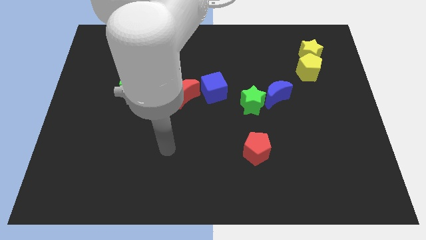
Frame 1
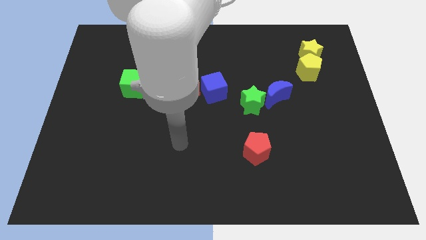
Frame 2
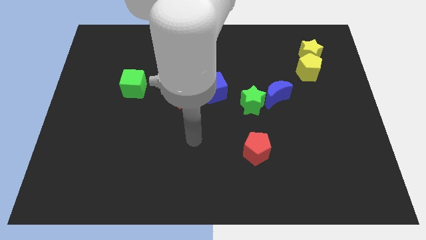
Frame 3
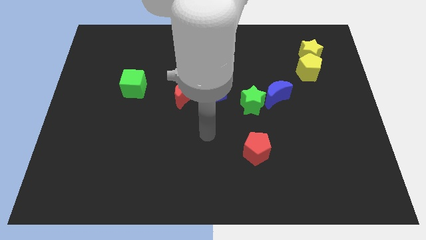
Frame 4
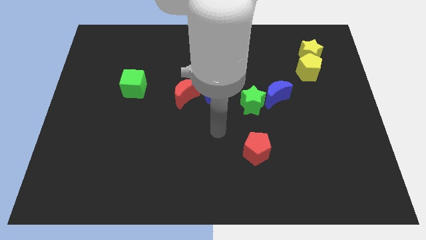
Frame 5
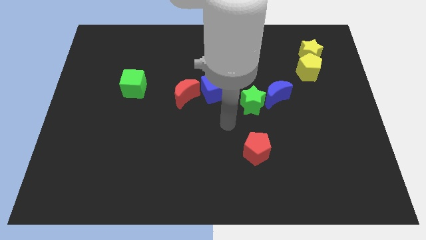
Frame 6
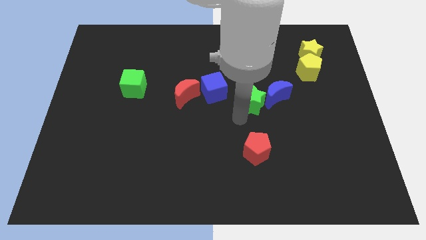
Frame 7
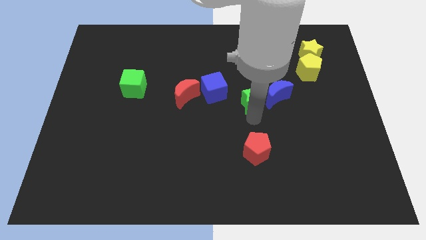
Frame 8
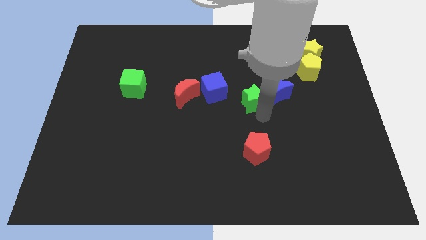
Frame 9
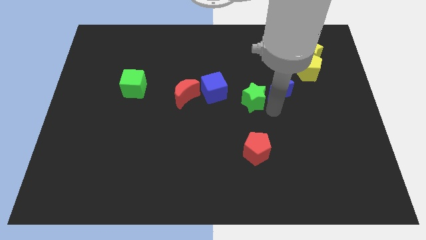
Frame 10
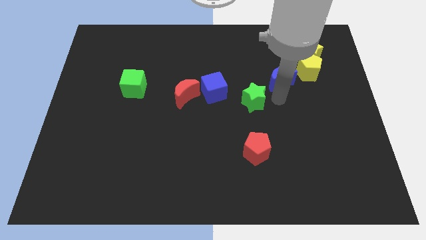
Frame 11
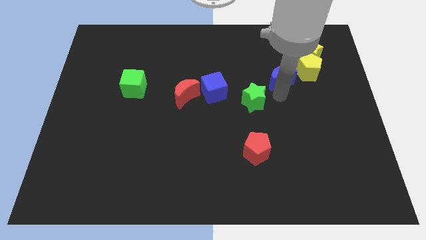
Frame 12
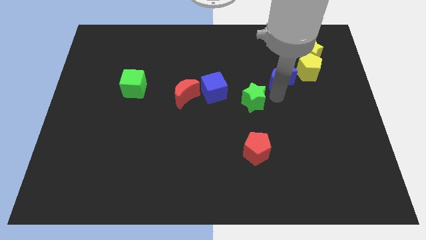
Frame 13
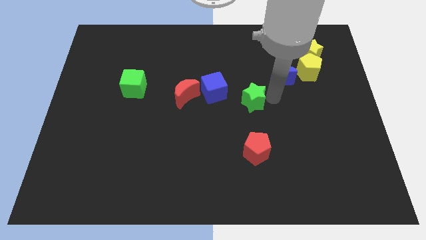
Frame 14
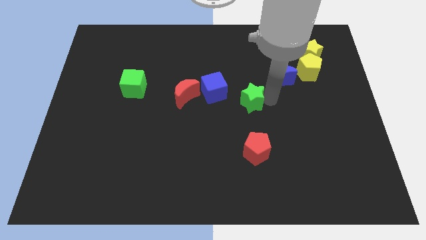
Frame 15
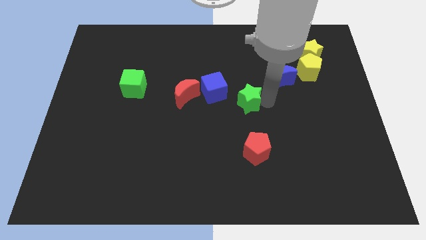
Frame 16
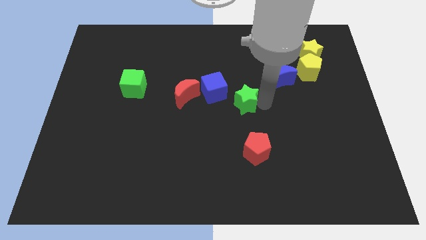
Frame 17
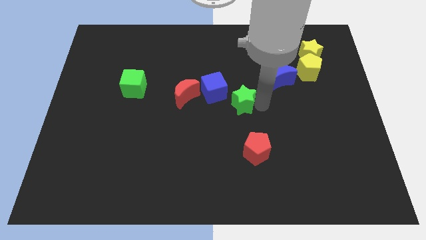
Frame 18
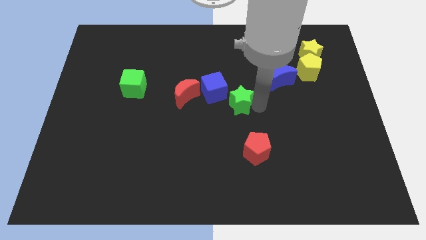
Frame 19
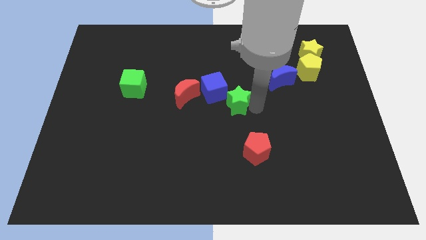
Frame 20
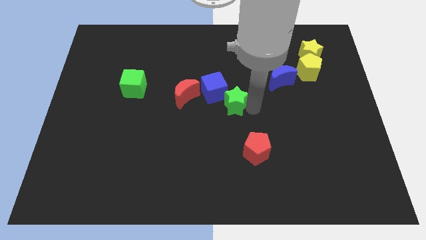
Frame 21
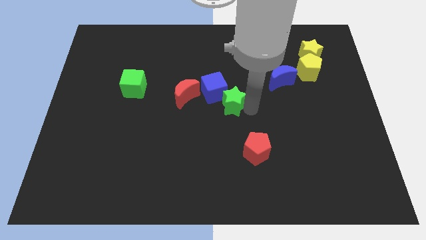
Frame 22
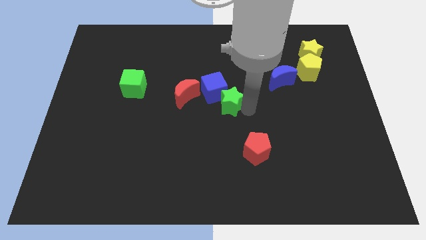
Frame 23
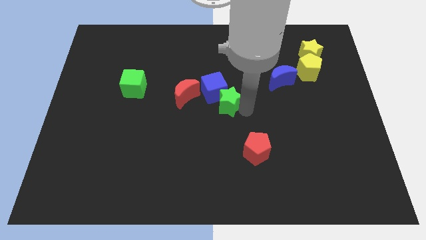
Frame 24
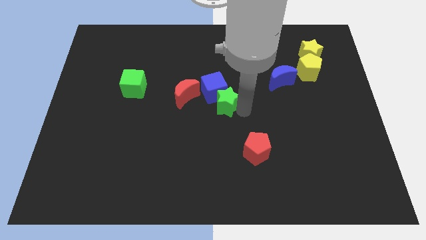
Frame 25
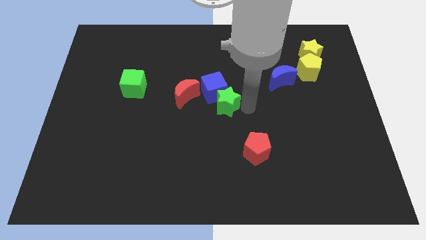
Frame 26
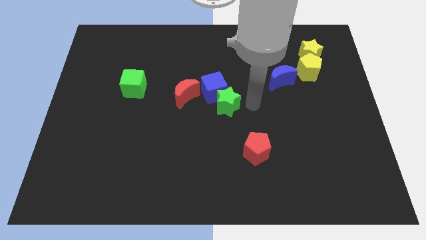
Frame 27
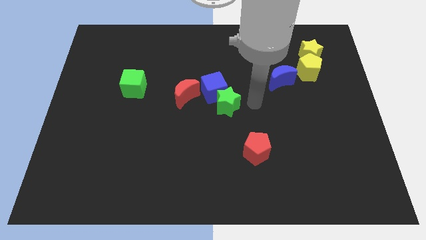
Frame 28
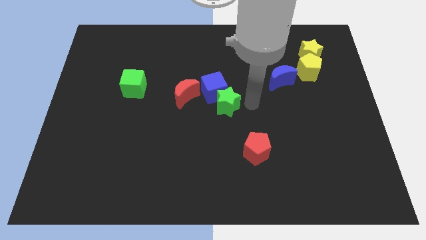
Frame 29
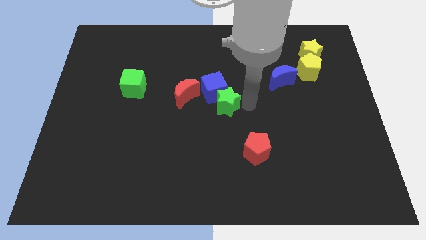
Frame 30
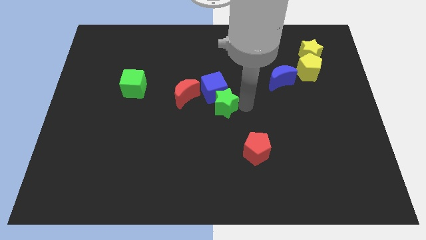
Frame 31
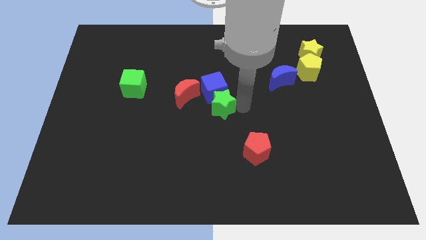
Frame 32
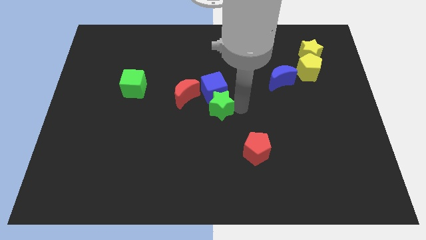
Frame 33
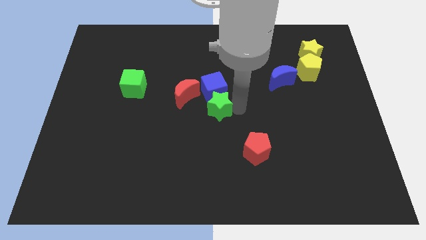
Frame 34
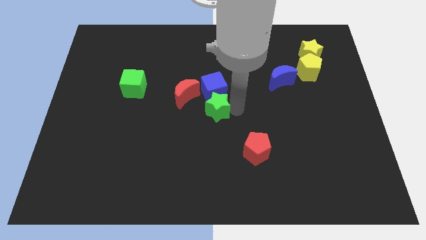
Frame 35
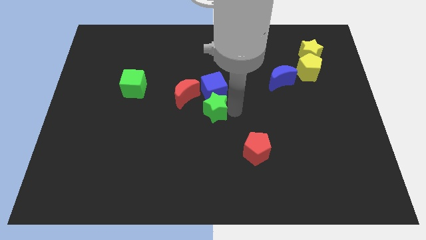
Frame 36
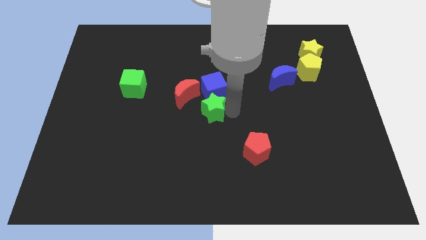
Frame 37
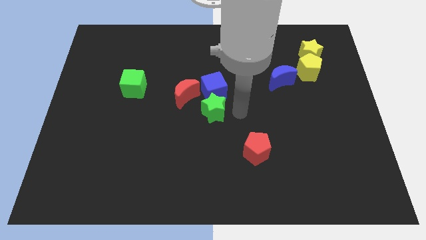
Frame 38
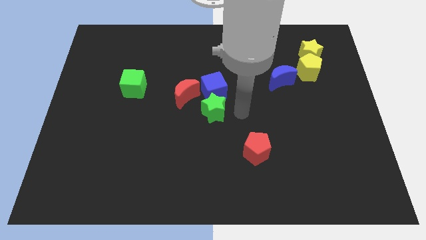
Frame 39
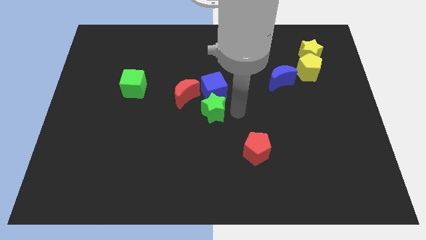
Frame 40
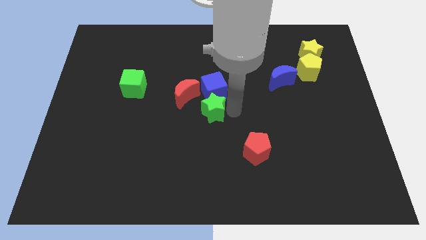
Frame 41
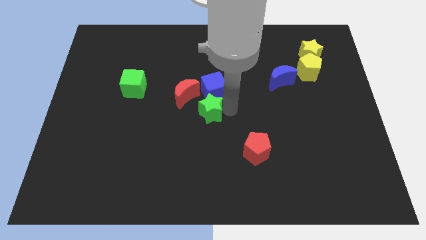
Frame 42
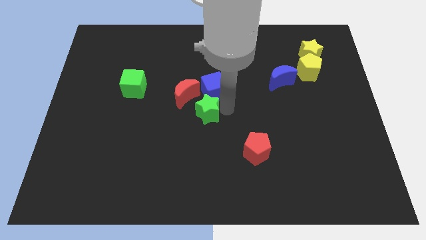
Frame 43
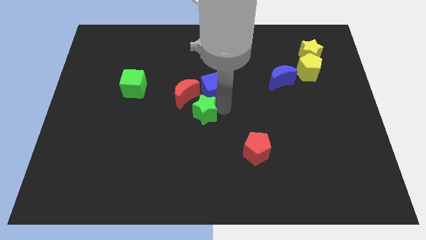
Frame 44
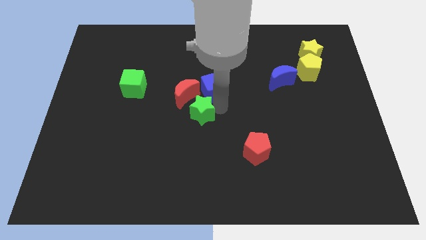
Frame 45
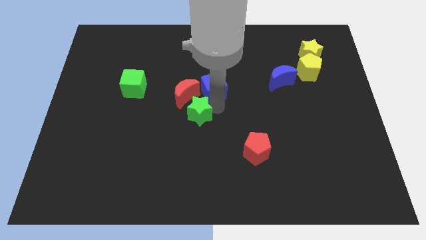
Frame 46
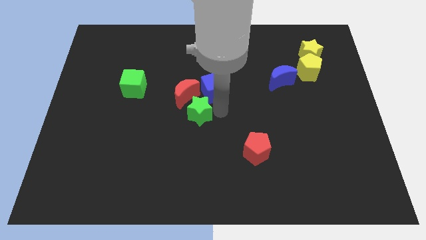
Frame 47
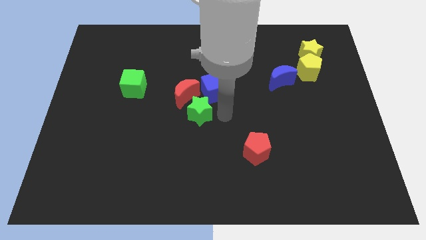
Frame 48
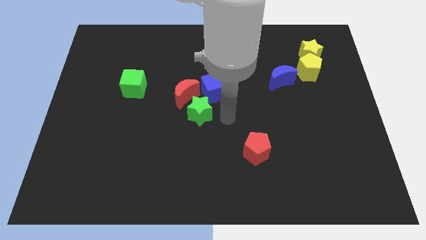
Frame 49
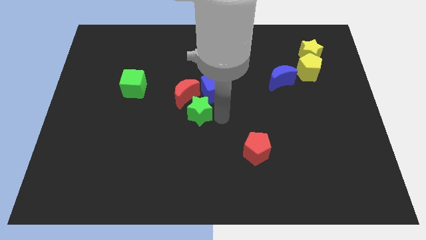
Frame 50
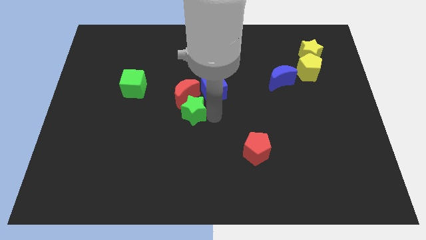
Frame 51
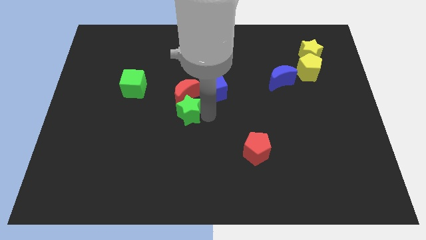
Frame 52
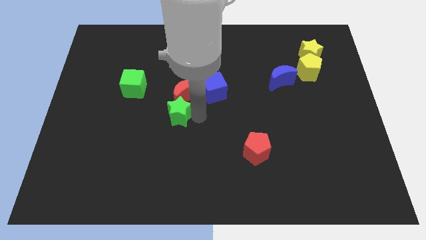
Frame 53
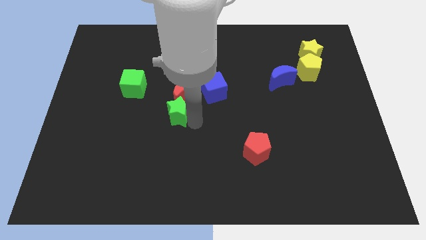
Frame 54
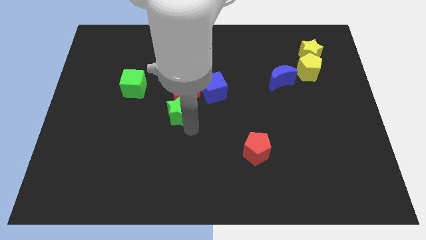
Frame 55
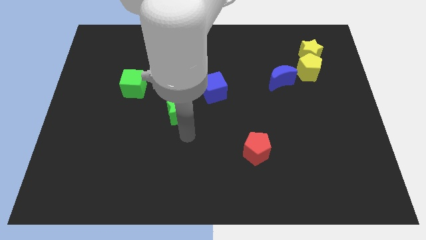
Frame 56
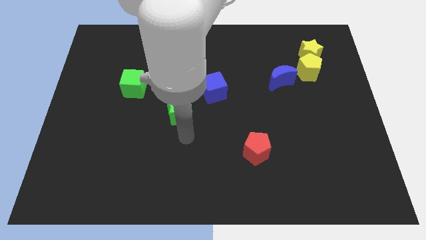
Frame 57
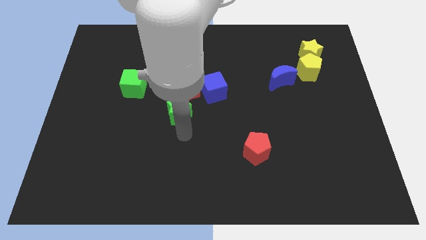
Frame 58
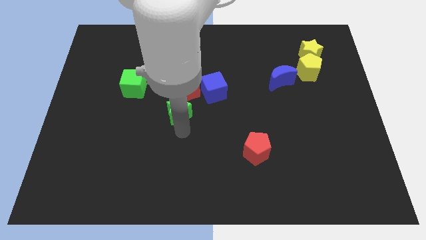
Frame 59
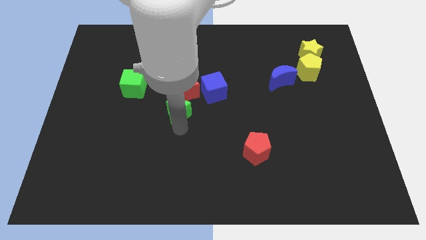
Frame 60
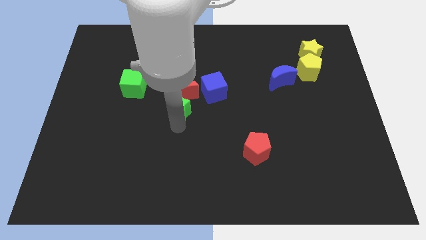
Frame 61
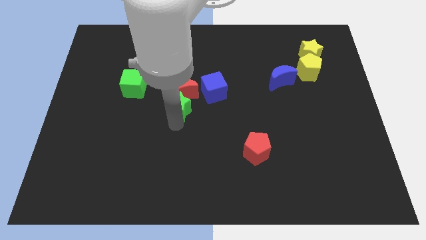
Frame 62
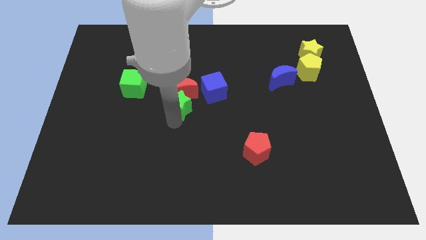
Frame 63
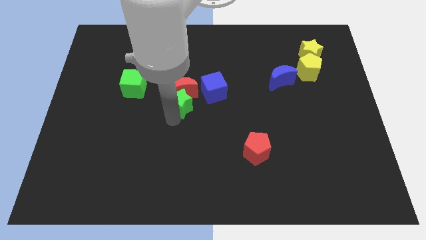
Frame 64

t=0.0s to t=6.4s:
push the green star to the left of the blue cube

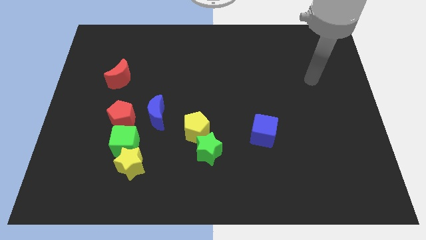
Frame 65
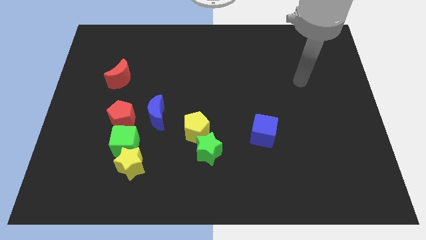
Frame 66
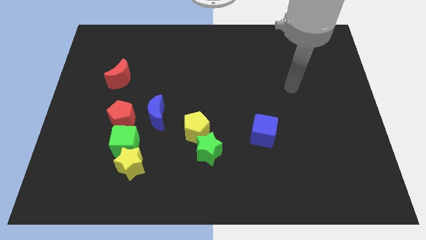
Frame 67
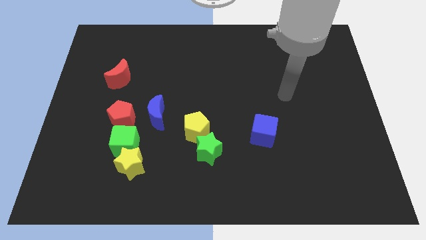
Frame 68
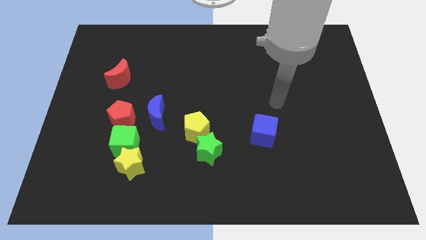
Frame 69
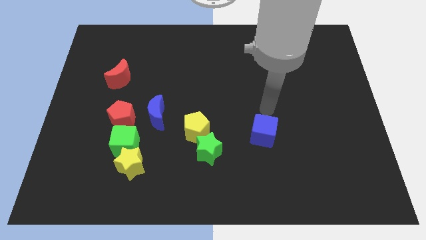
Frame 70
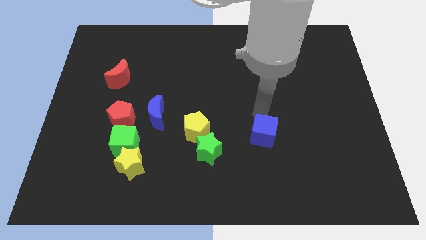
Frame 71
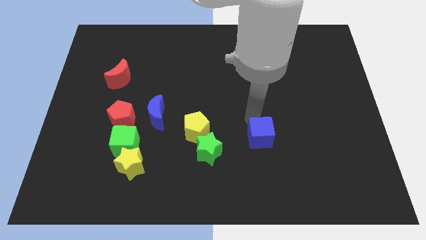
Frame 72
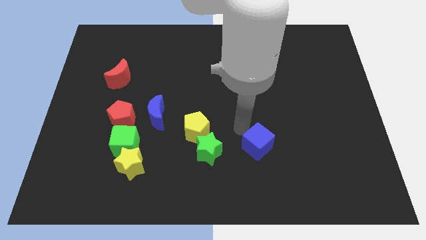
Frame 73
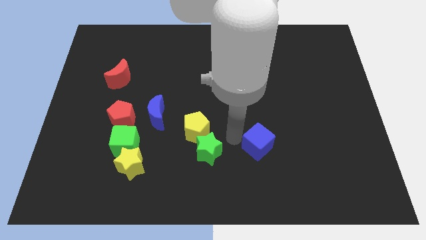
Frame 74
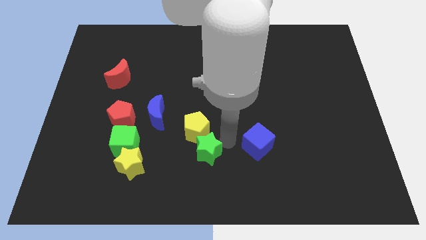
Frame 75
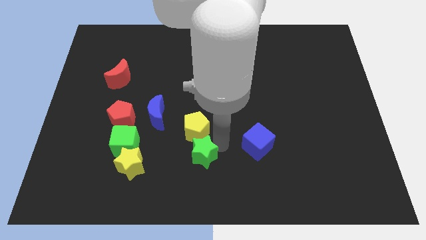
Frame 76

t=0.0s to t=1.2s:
move the green star right of the yellow star
